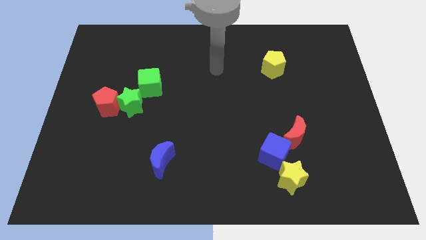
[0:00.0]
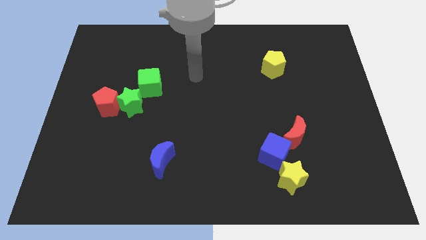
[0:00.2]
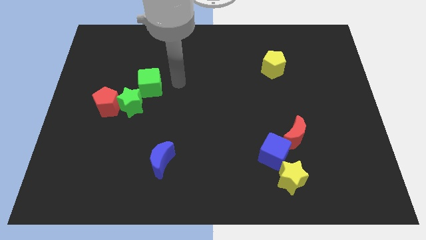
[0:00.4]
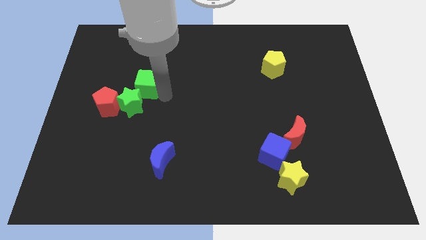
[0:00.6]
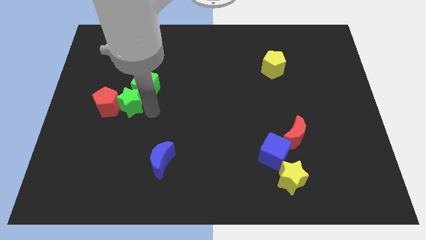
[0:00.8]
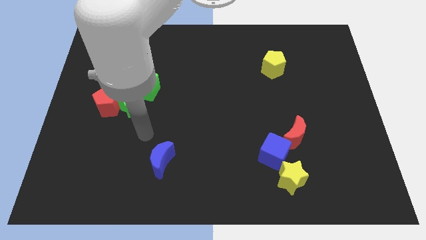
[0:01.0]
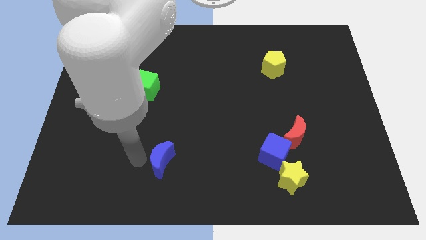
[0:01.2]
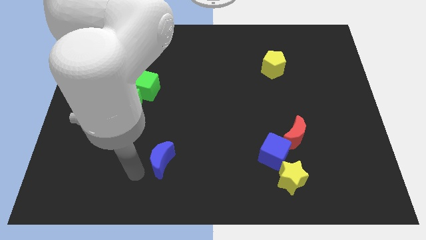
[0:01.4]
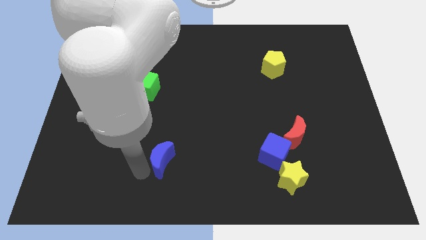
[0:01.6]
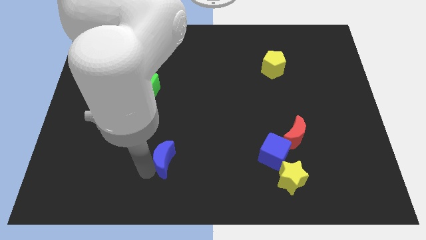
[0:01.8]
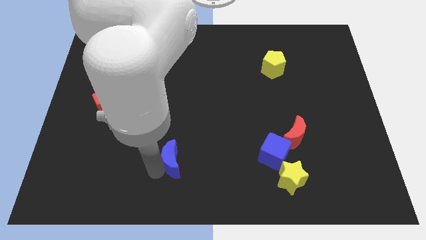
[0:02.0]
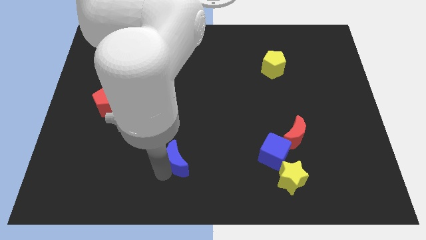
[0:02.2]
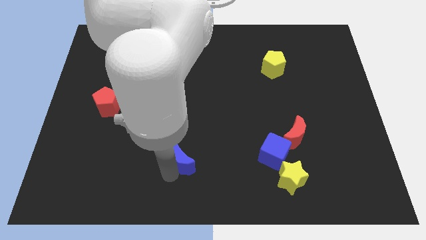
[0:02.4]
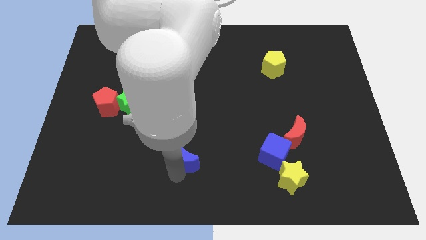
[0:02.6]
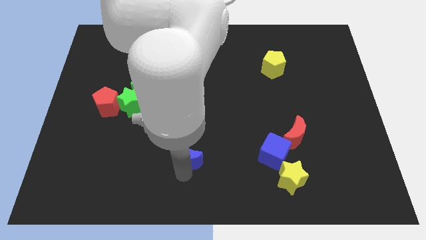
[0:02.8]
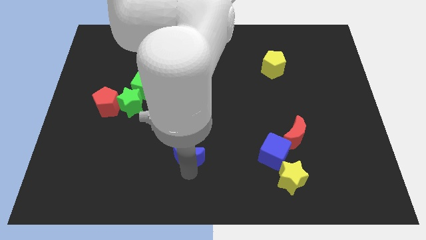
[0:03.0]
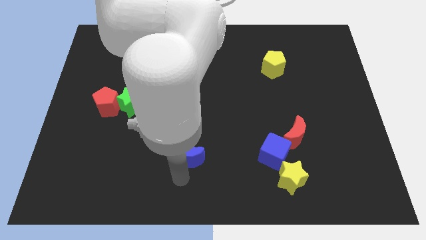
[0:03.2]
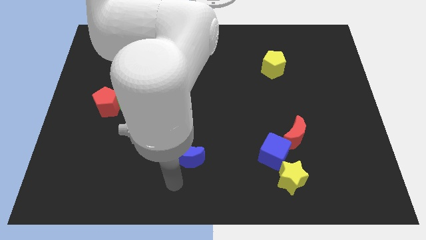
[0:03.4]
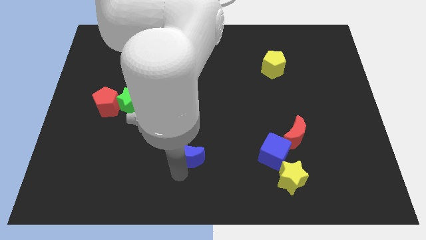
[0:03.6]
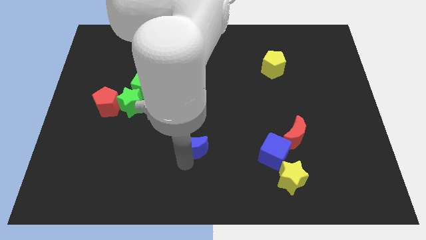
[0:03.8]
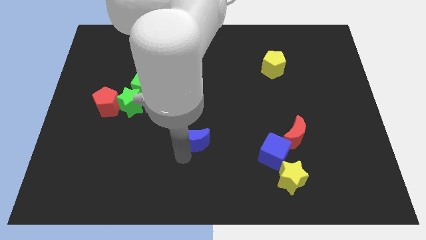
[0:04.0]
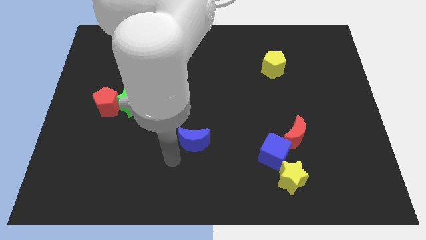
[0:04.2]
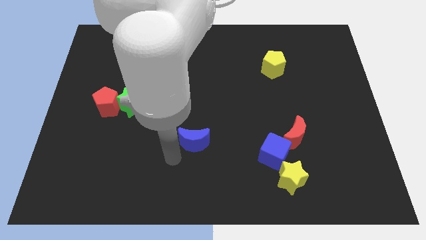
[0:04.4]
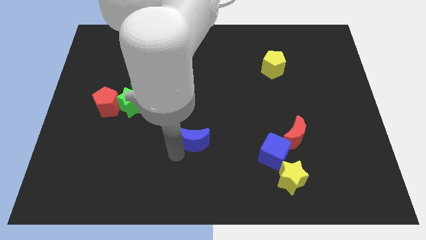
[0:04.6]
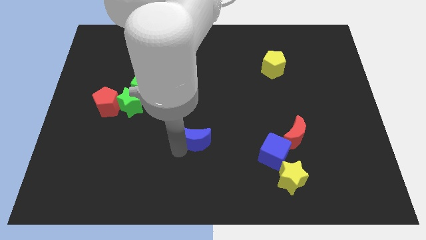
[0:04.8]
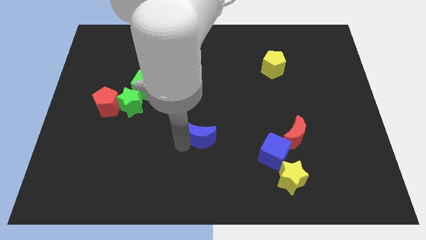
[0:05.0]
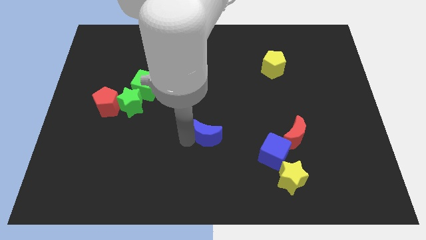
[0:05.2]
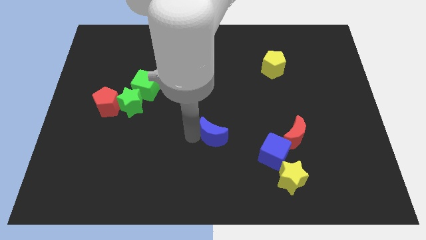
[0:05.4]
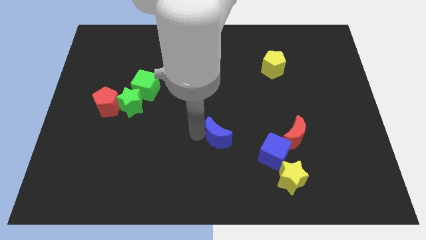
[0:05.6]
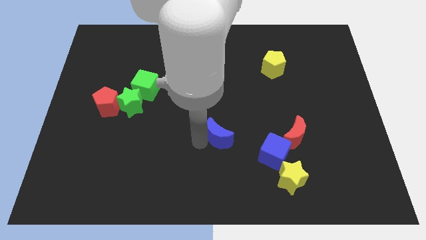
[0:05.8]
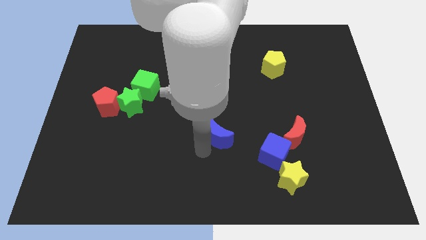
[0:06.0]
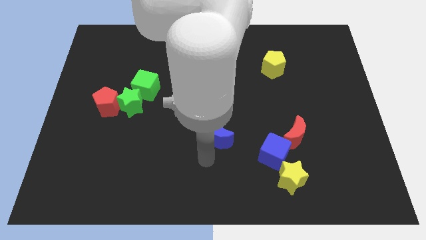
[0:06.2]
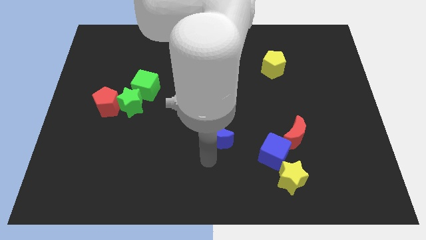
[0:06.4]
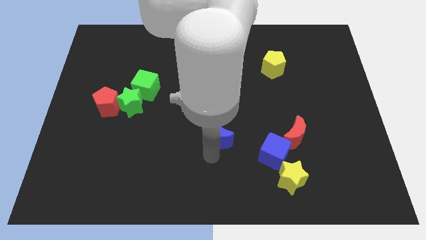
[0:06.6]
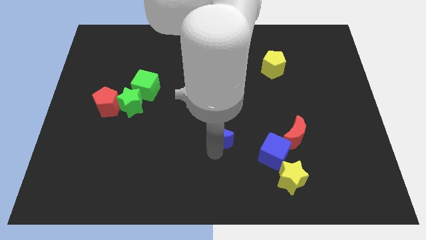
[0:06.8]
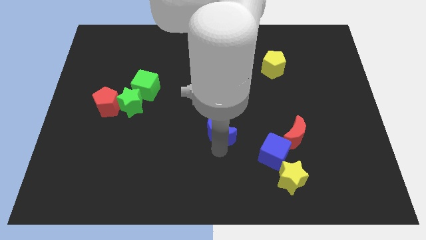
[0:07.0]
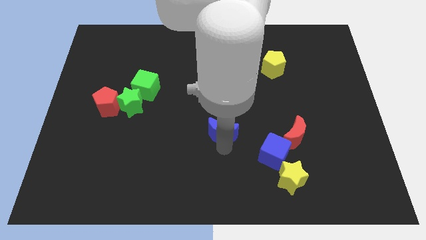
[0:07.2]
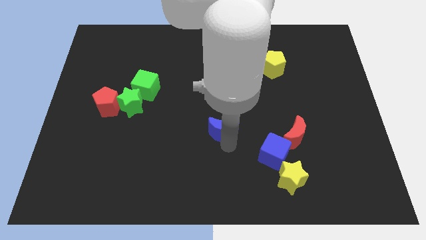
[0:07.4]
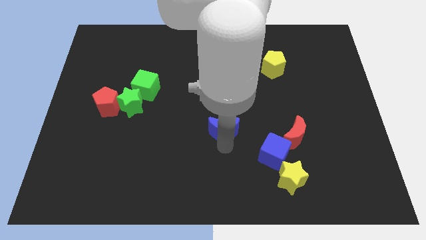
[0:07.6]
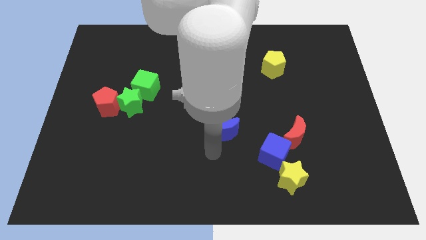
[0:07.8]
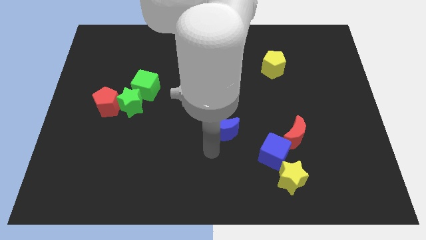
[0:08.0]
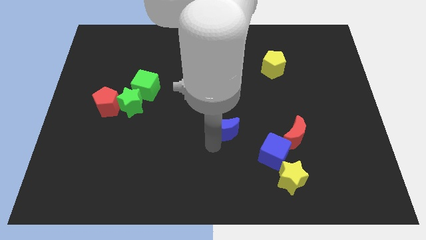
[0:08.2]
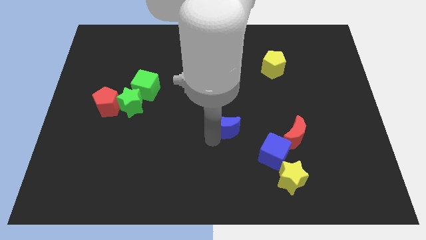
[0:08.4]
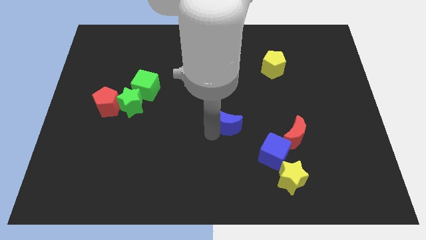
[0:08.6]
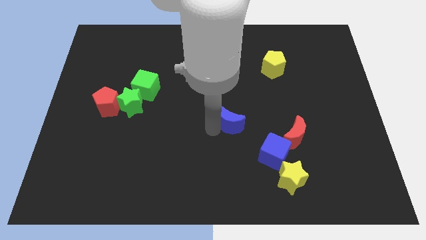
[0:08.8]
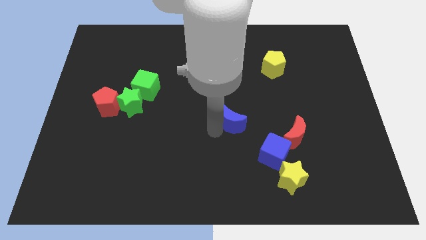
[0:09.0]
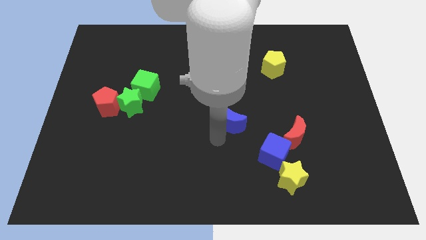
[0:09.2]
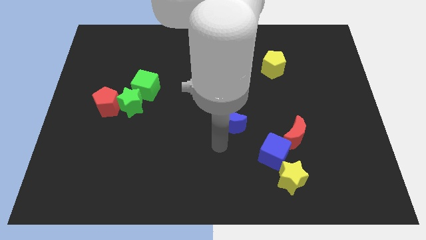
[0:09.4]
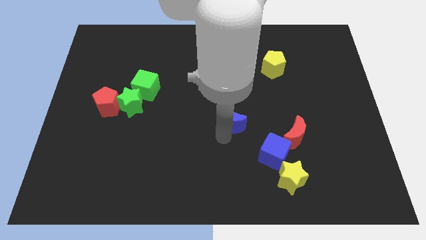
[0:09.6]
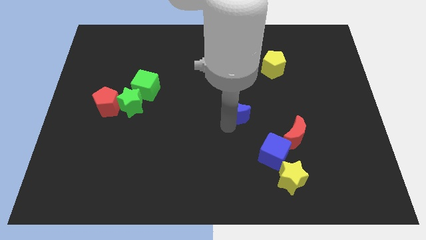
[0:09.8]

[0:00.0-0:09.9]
move the blue moon diagonally upwards and right

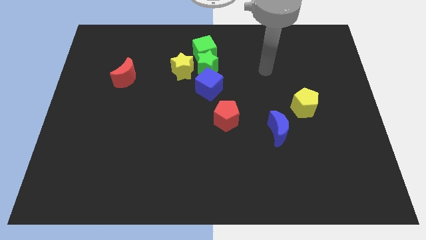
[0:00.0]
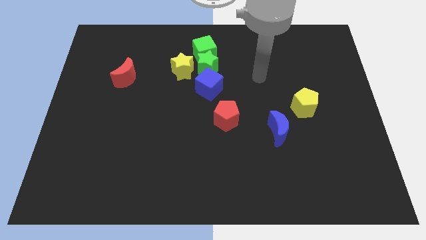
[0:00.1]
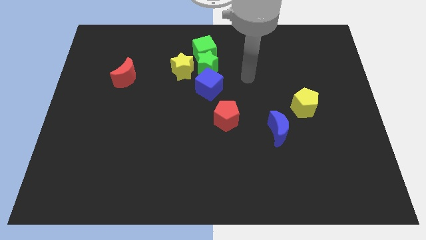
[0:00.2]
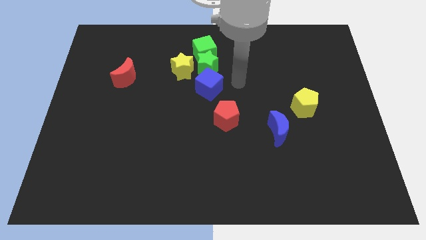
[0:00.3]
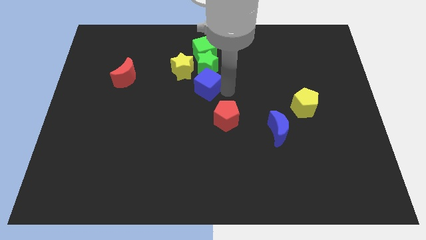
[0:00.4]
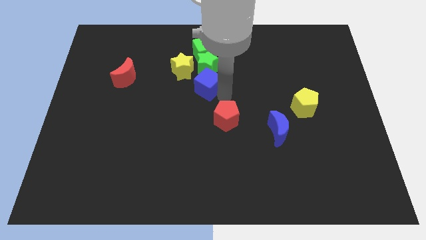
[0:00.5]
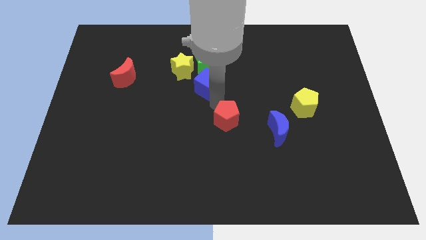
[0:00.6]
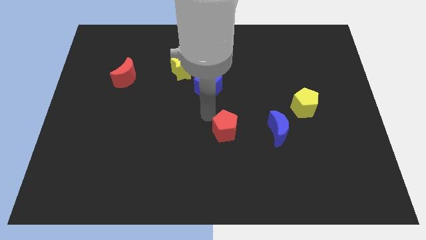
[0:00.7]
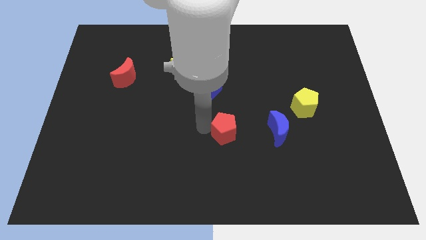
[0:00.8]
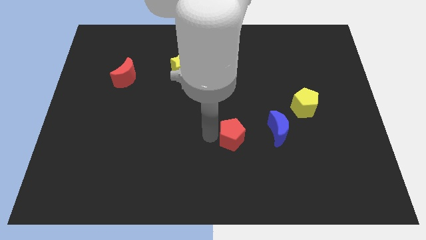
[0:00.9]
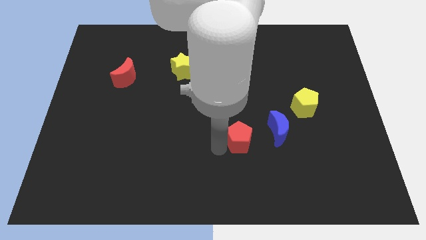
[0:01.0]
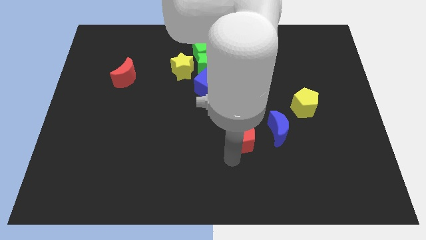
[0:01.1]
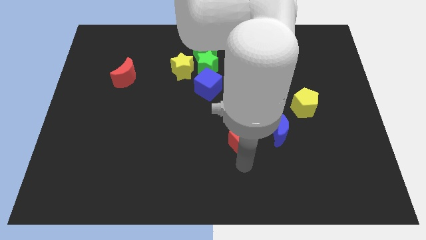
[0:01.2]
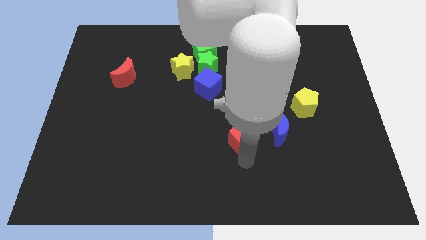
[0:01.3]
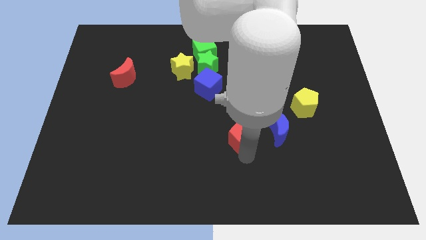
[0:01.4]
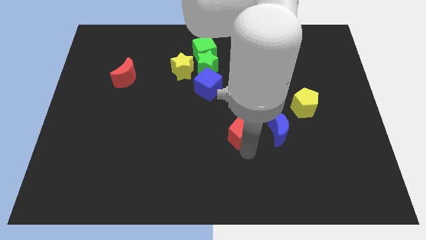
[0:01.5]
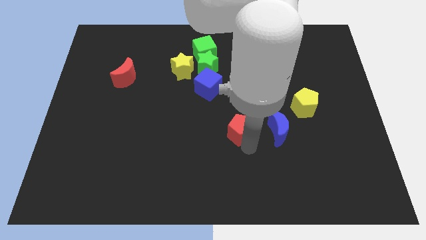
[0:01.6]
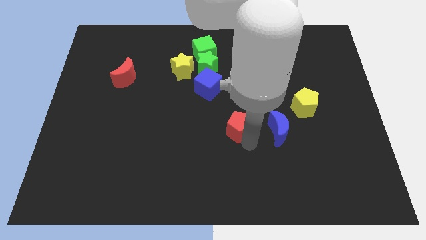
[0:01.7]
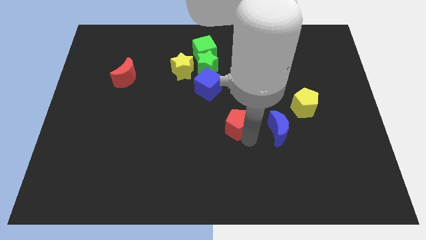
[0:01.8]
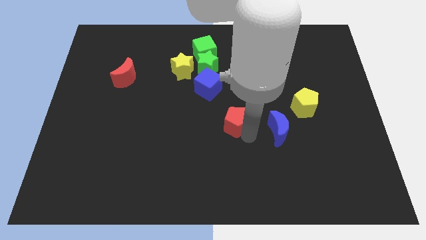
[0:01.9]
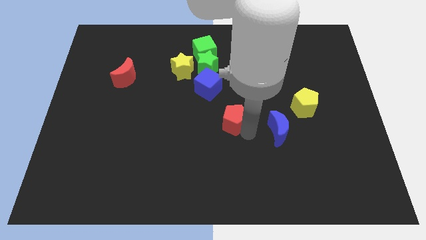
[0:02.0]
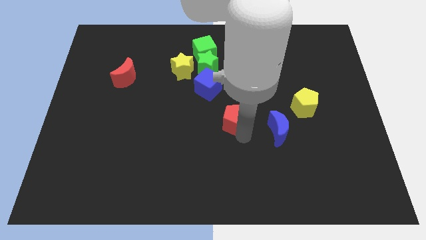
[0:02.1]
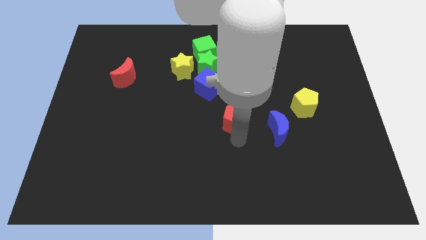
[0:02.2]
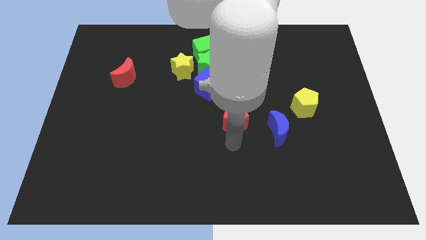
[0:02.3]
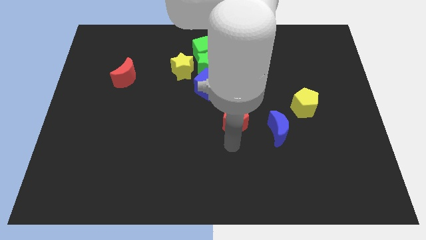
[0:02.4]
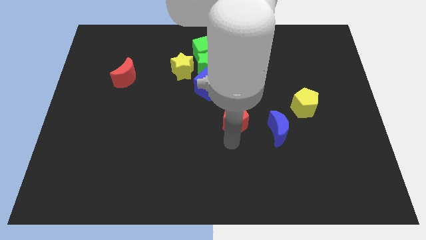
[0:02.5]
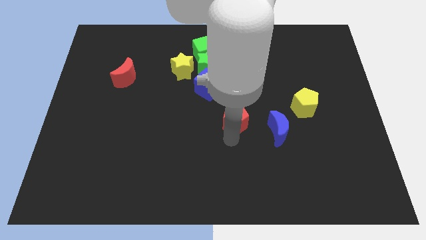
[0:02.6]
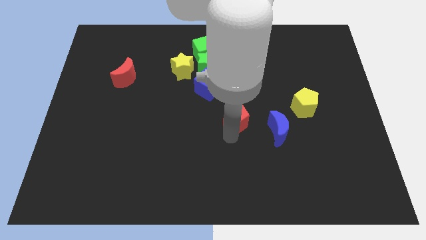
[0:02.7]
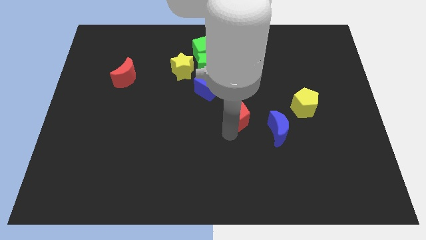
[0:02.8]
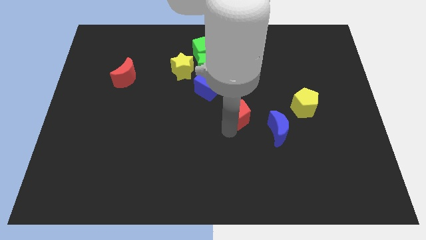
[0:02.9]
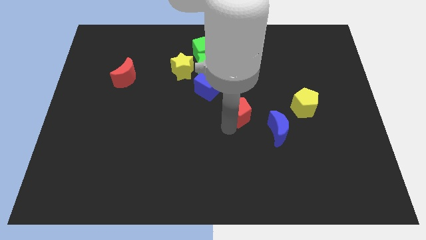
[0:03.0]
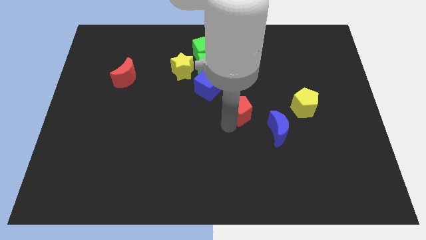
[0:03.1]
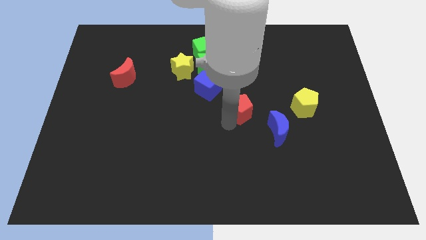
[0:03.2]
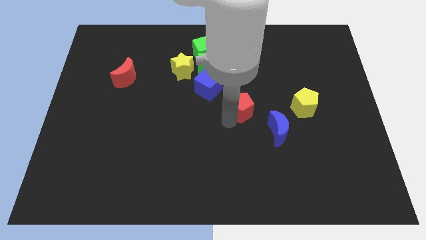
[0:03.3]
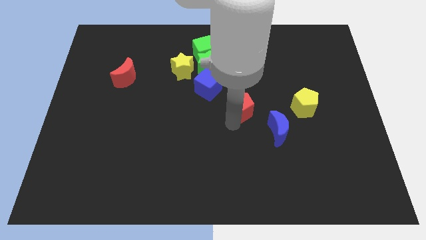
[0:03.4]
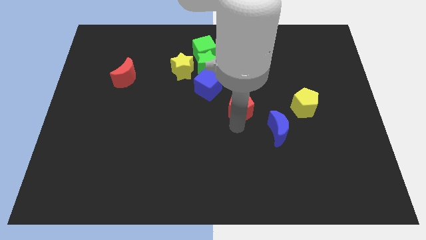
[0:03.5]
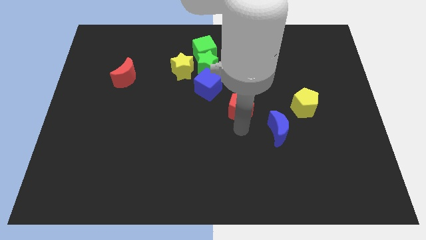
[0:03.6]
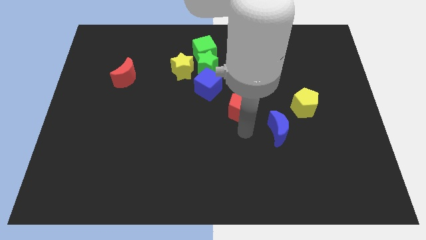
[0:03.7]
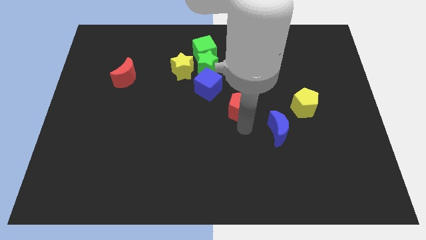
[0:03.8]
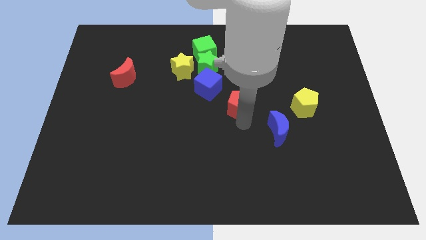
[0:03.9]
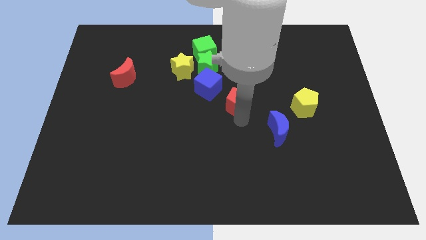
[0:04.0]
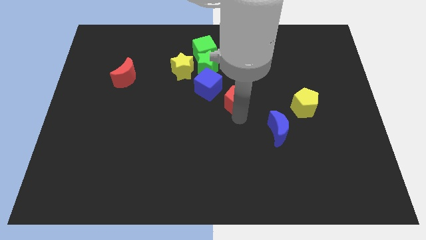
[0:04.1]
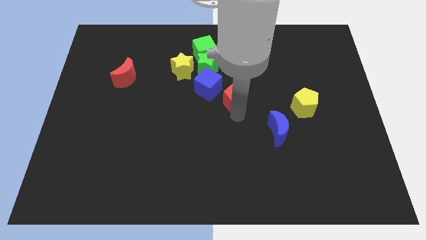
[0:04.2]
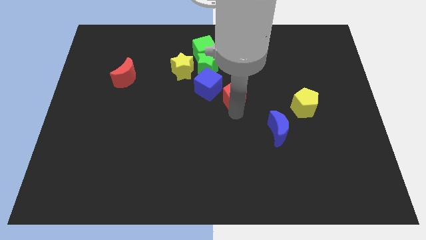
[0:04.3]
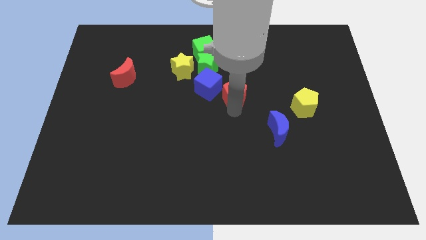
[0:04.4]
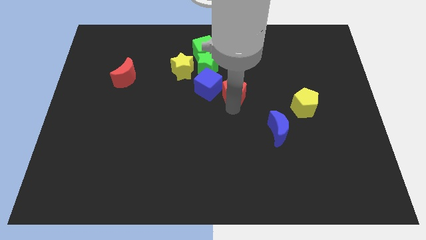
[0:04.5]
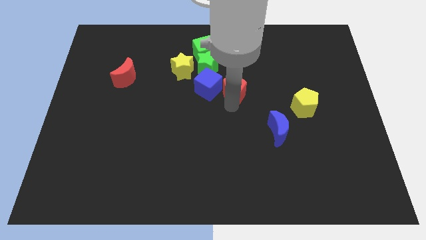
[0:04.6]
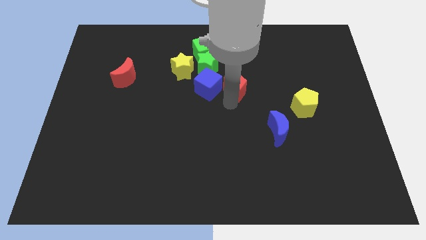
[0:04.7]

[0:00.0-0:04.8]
move the red pentagon upwards and right a bit
